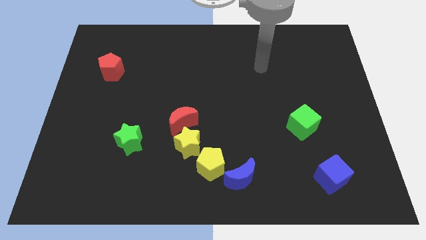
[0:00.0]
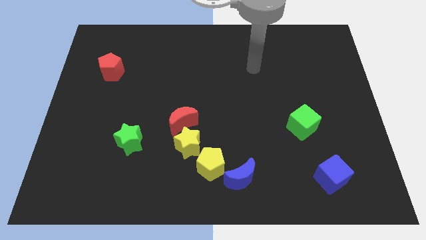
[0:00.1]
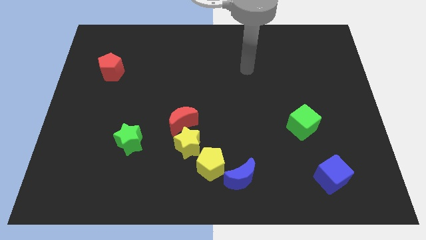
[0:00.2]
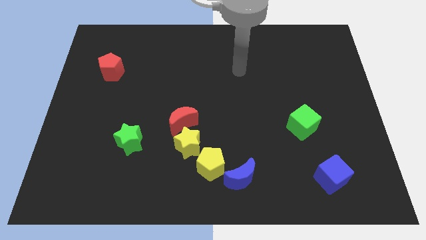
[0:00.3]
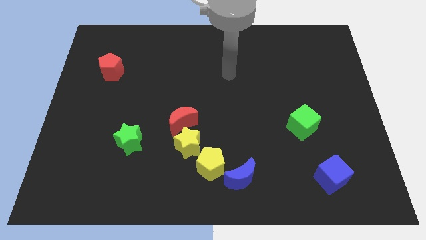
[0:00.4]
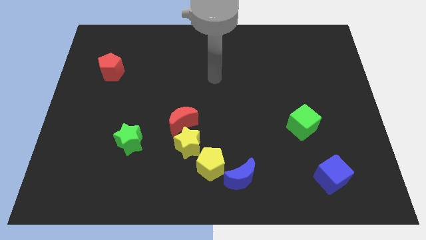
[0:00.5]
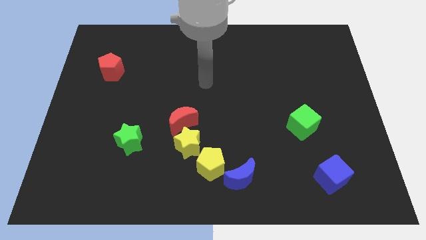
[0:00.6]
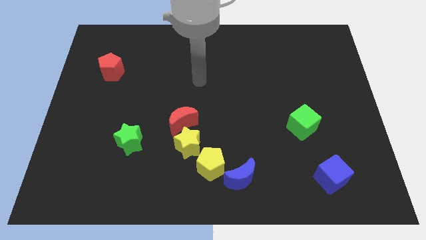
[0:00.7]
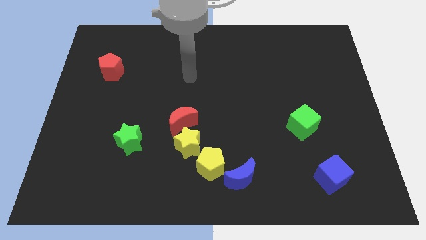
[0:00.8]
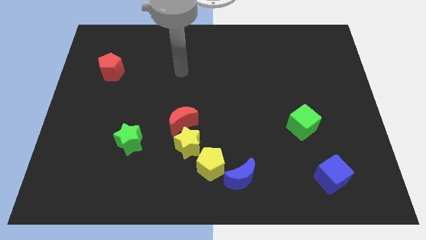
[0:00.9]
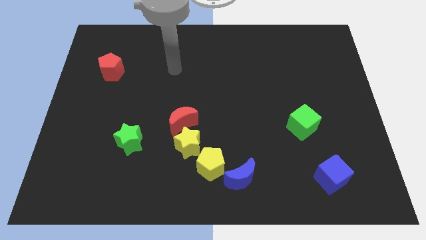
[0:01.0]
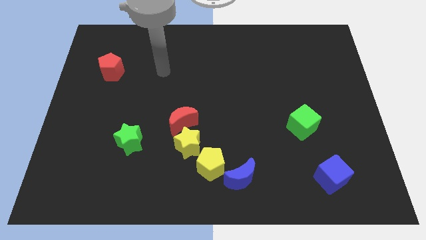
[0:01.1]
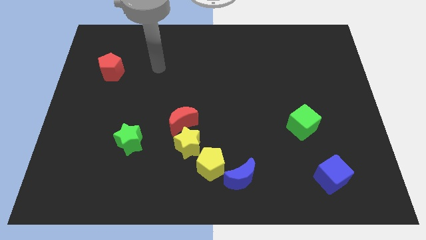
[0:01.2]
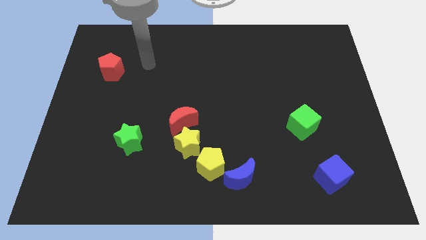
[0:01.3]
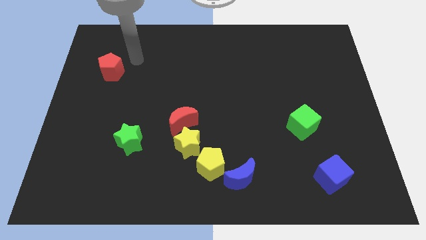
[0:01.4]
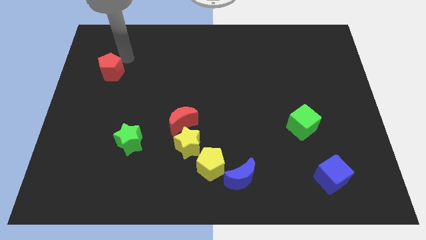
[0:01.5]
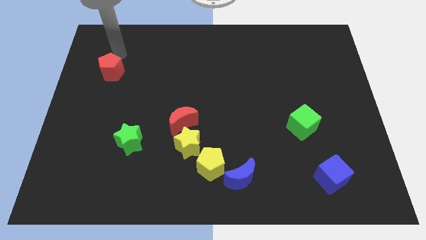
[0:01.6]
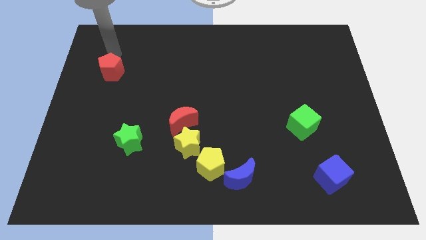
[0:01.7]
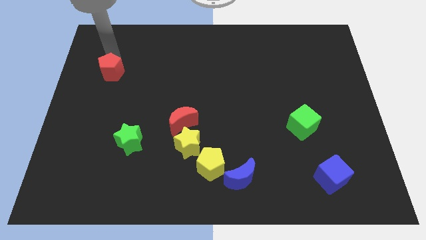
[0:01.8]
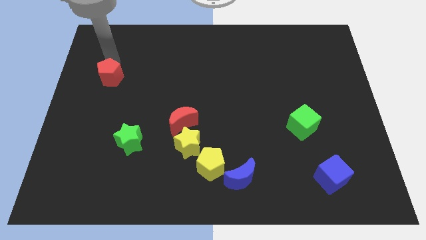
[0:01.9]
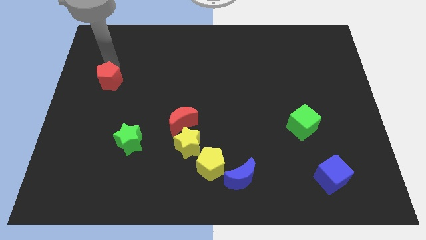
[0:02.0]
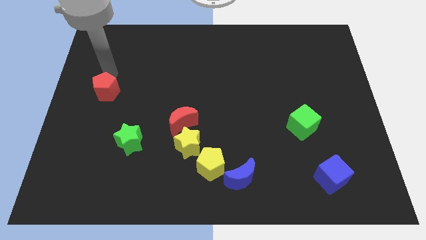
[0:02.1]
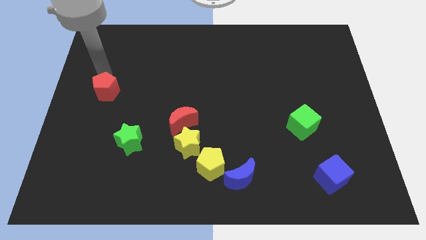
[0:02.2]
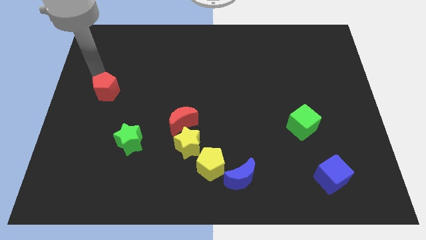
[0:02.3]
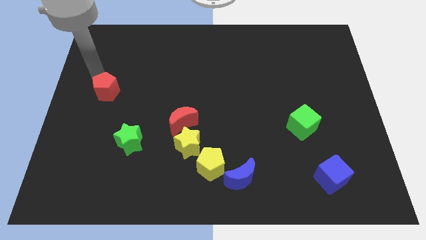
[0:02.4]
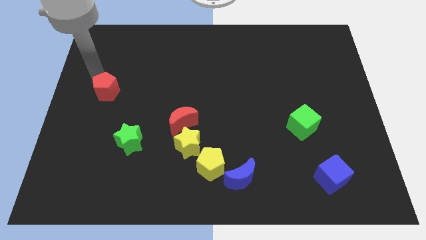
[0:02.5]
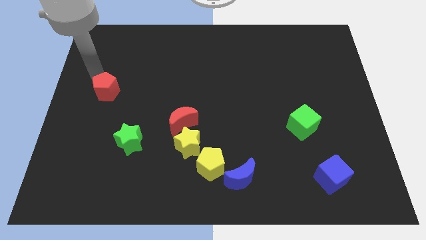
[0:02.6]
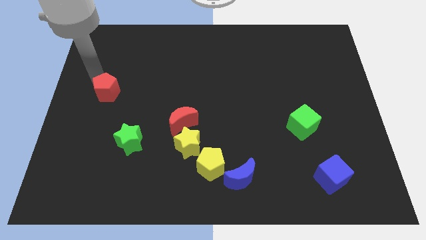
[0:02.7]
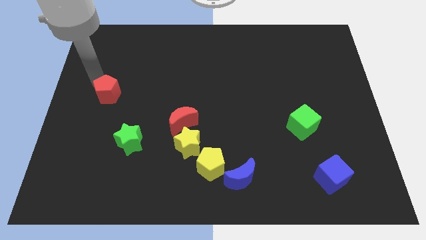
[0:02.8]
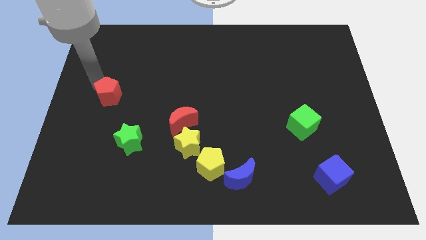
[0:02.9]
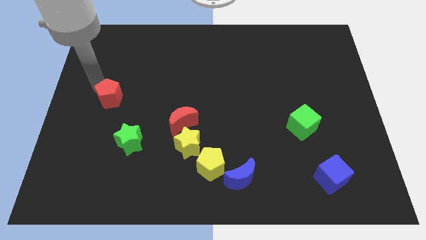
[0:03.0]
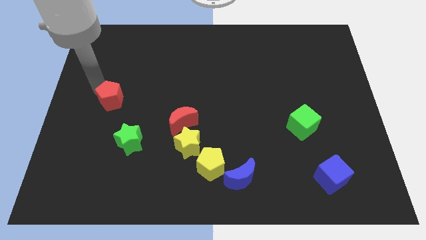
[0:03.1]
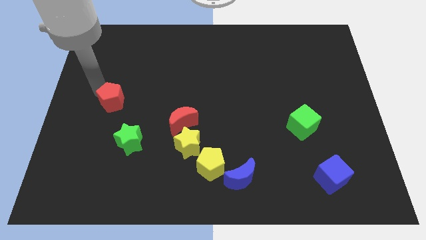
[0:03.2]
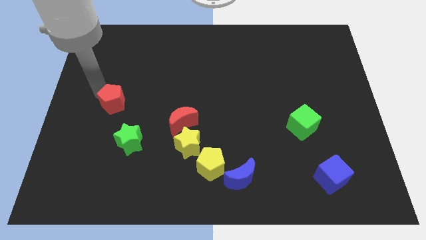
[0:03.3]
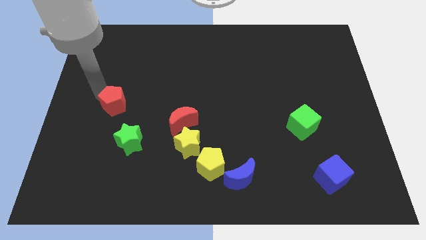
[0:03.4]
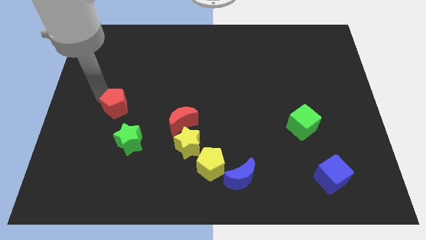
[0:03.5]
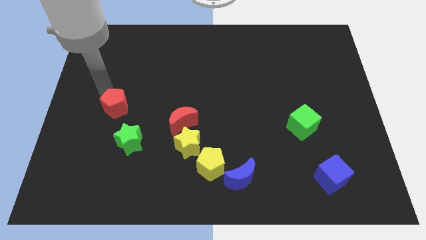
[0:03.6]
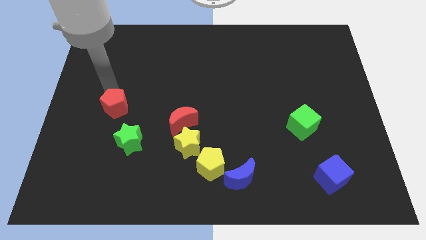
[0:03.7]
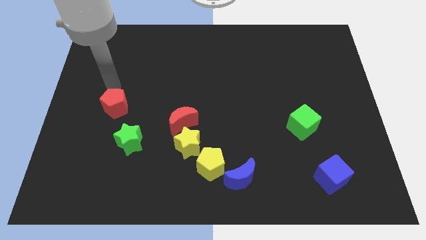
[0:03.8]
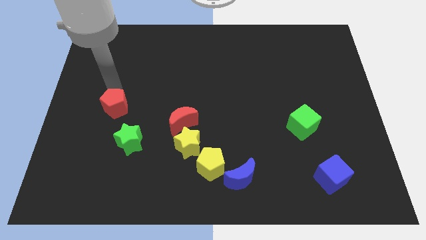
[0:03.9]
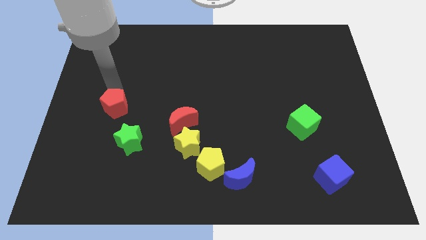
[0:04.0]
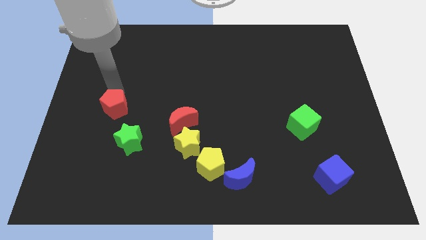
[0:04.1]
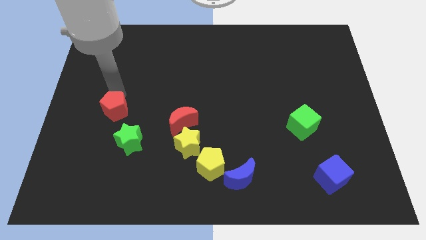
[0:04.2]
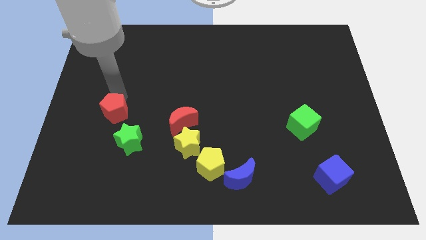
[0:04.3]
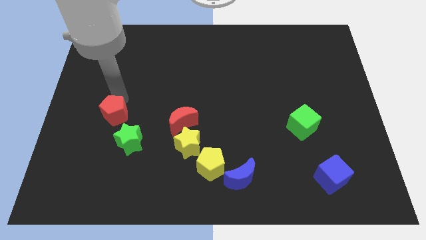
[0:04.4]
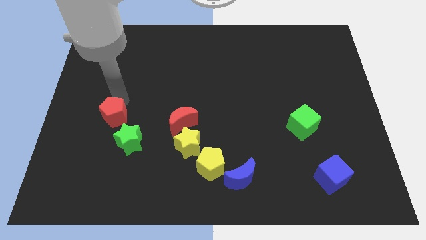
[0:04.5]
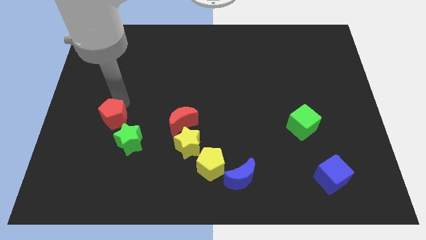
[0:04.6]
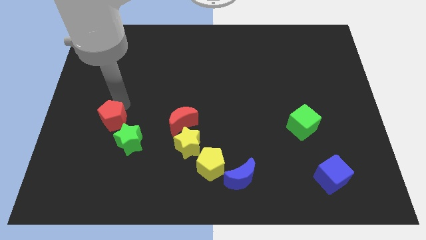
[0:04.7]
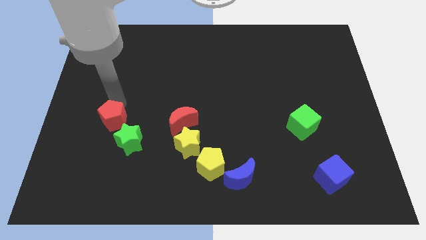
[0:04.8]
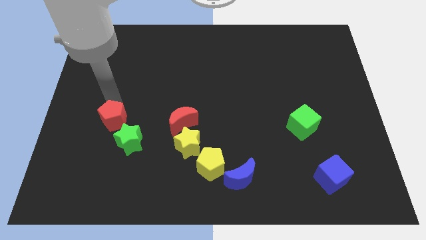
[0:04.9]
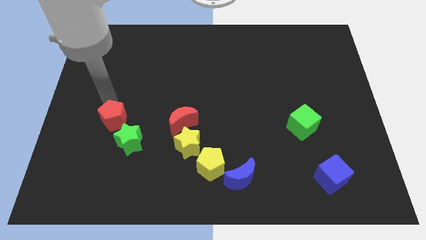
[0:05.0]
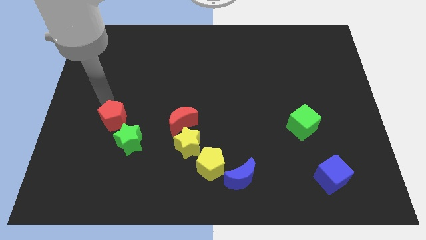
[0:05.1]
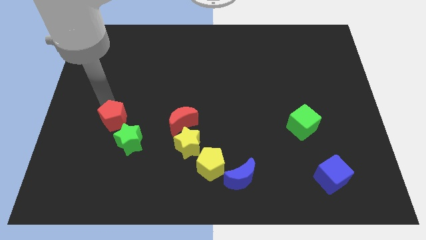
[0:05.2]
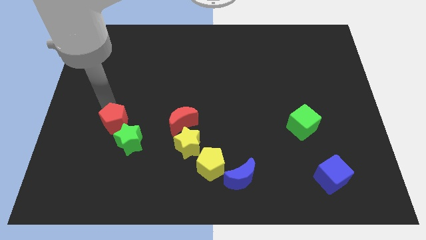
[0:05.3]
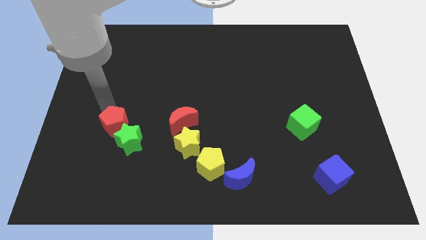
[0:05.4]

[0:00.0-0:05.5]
put the red pentagon to the green star
